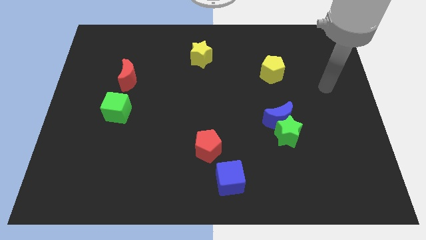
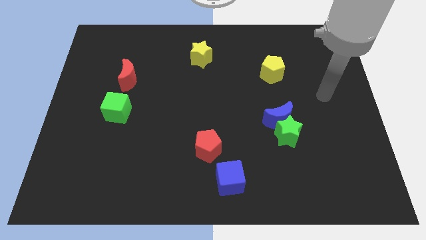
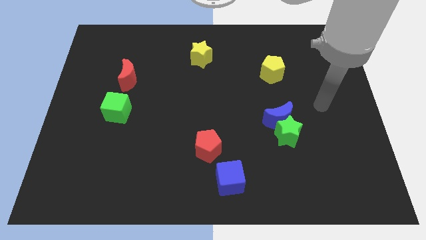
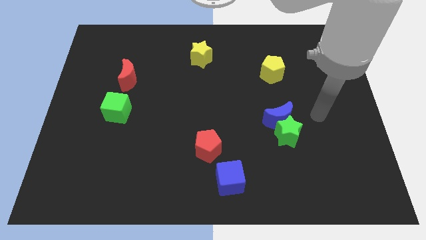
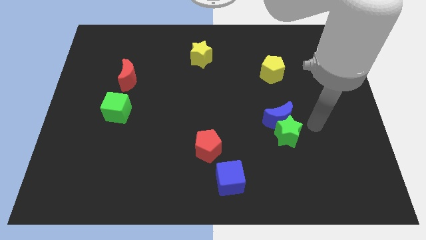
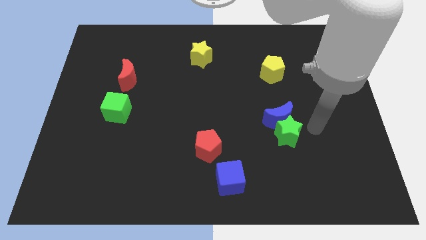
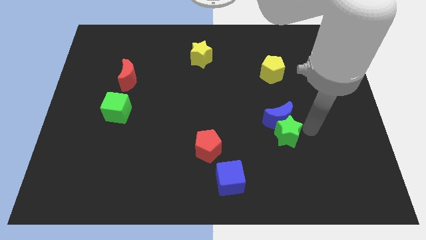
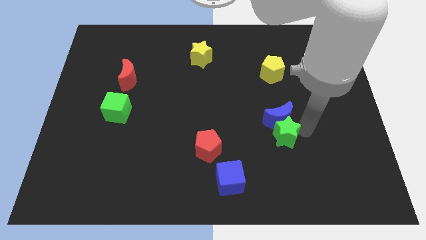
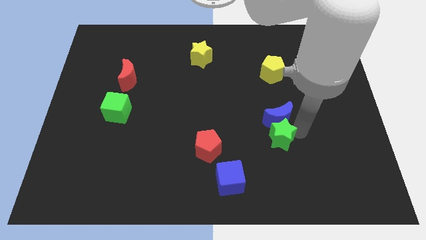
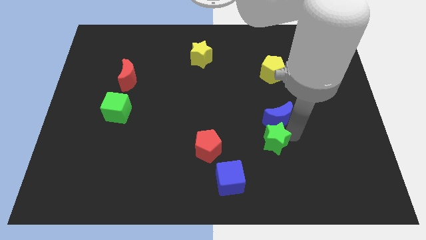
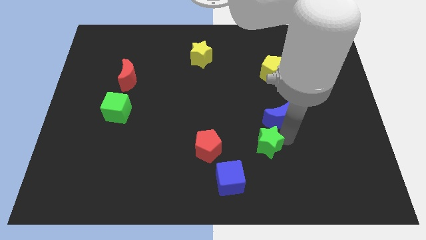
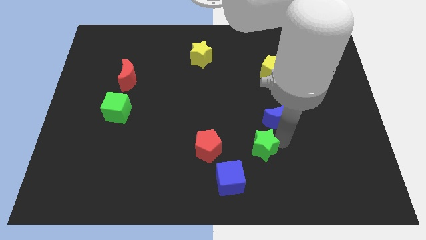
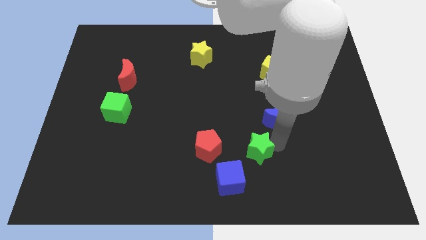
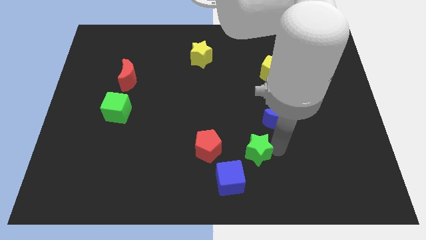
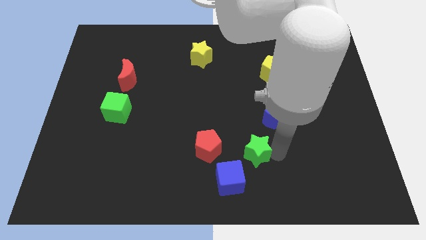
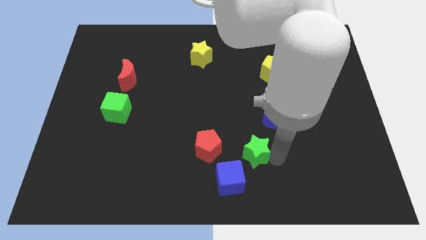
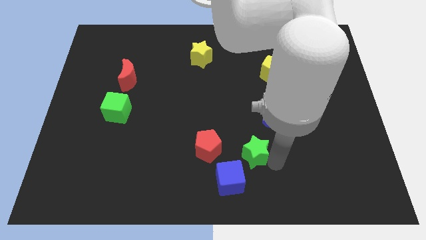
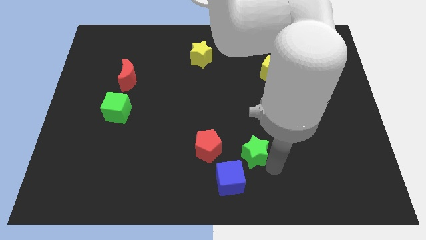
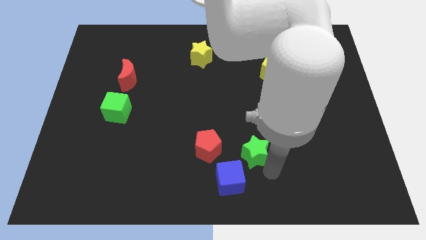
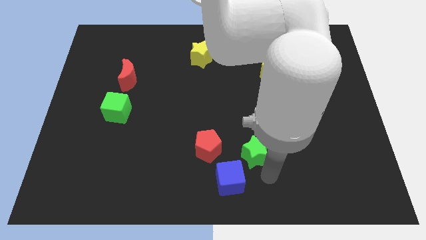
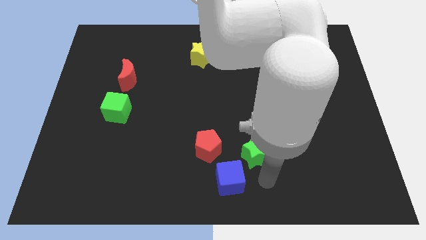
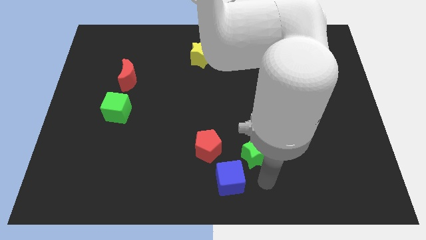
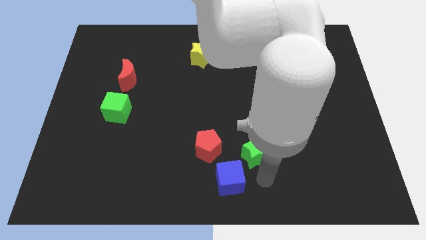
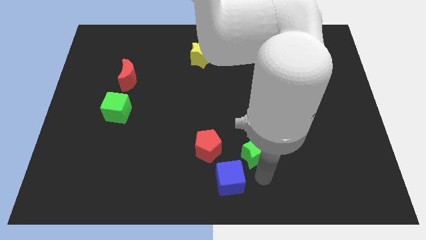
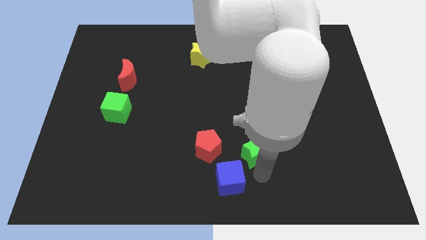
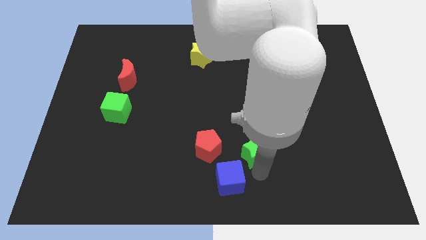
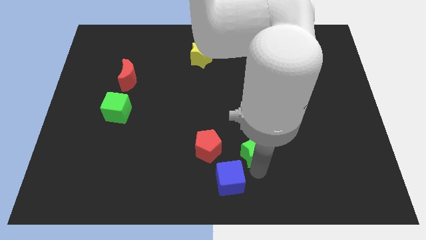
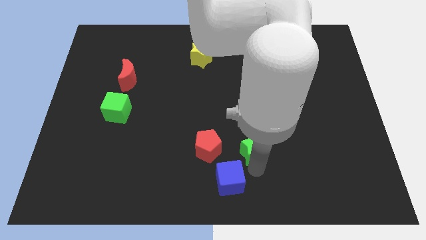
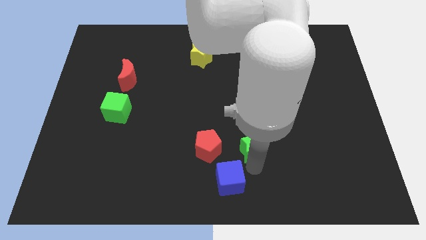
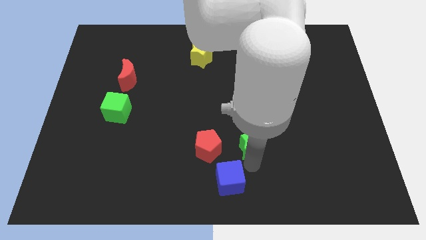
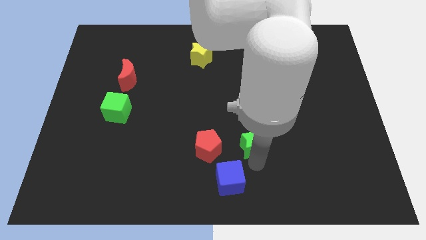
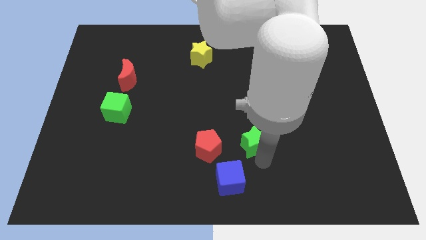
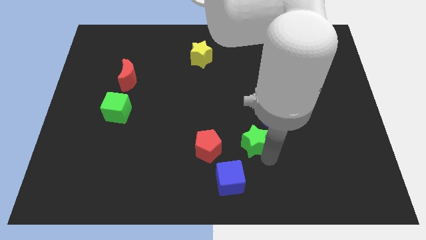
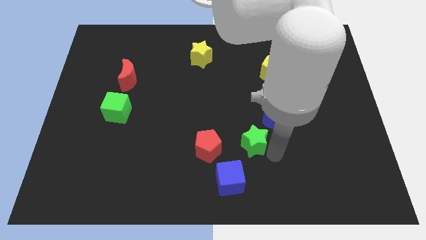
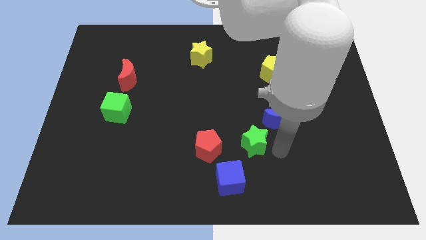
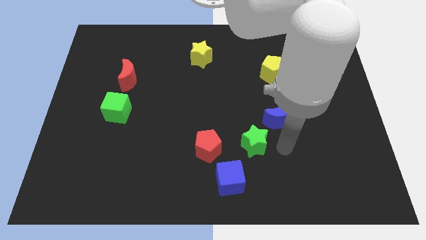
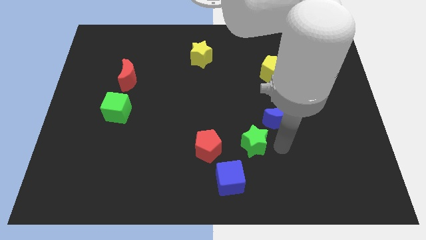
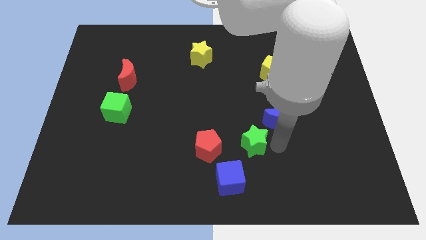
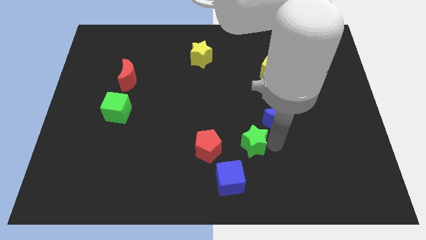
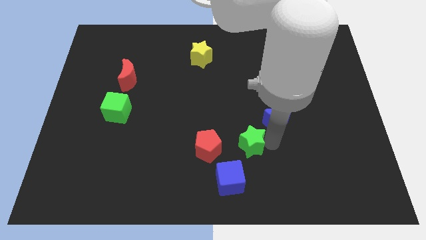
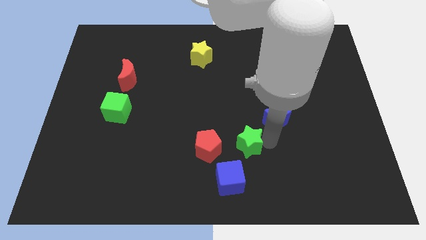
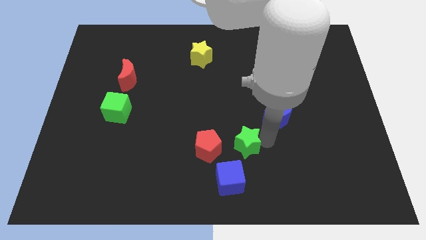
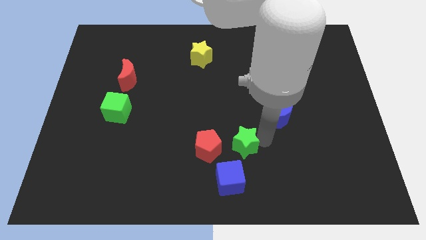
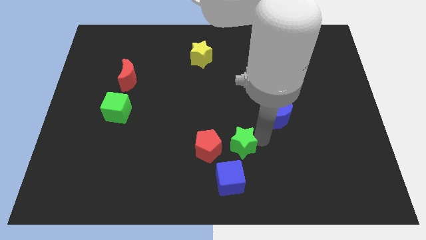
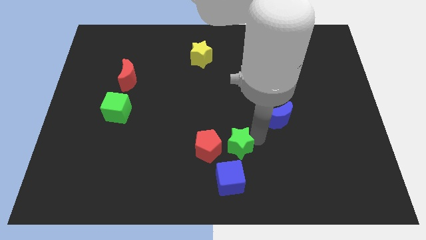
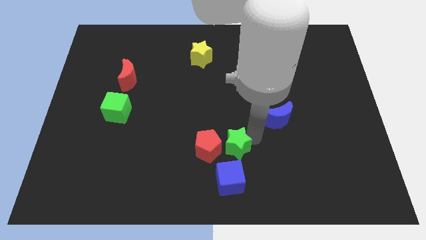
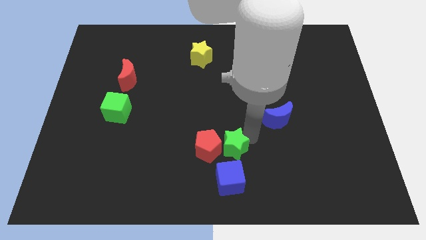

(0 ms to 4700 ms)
move the green star next to the red pentagon

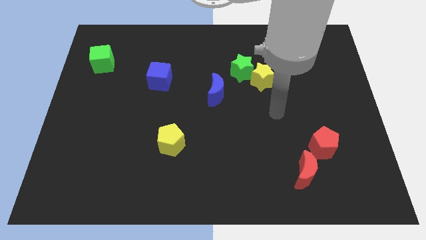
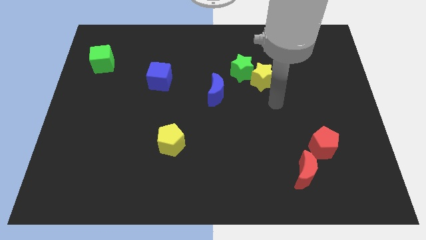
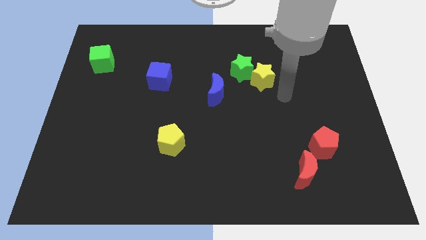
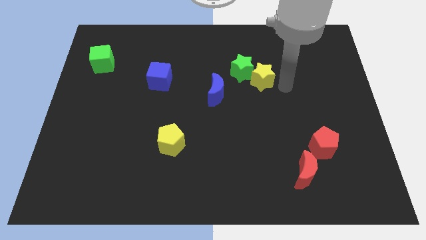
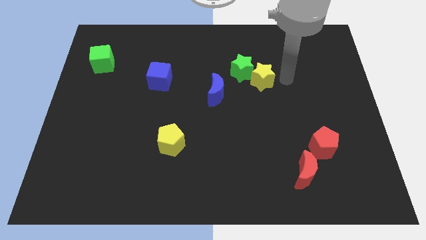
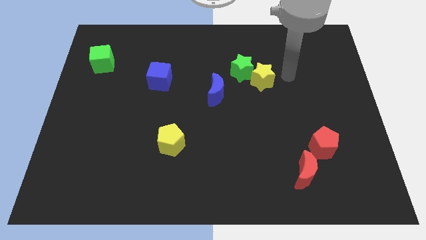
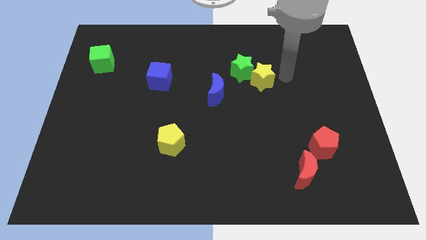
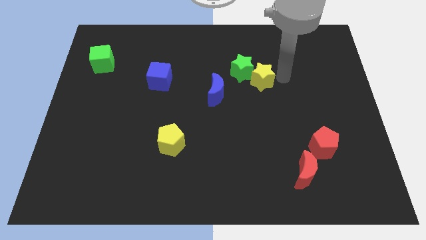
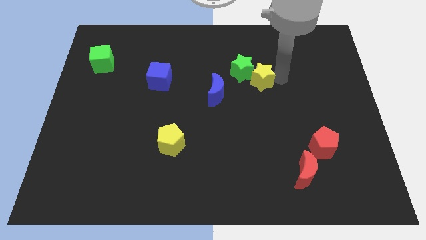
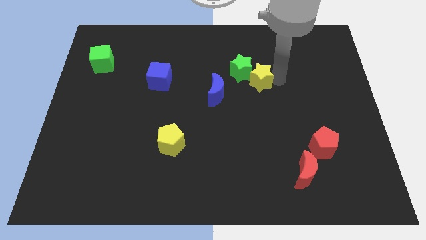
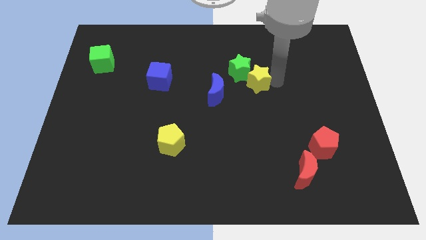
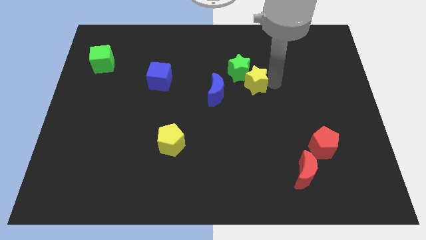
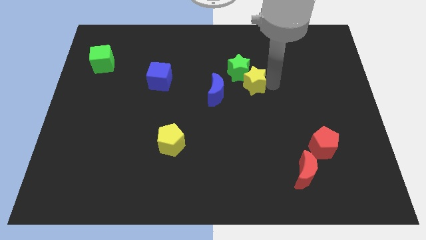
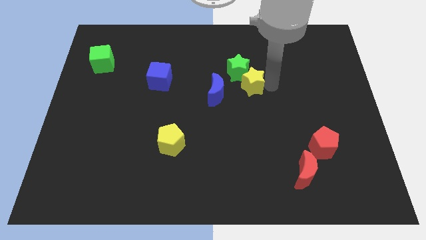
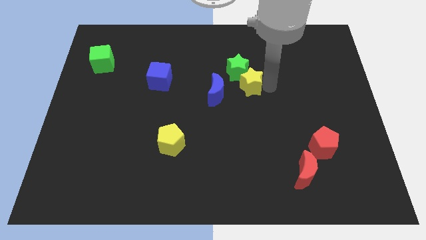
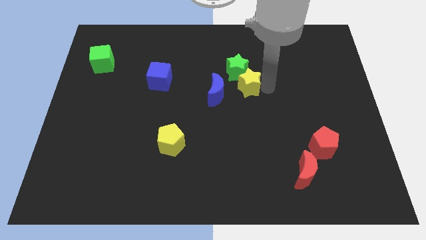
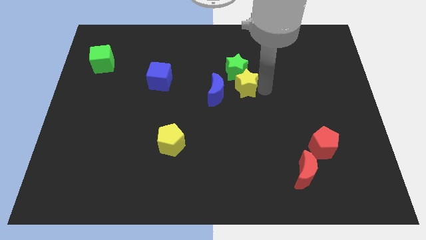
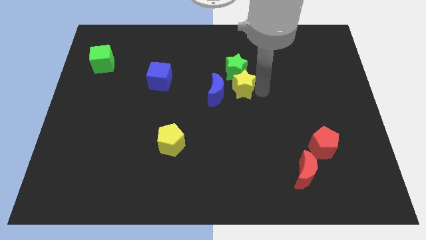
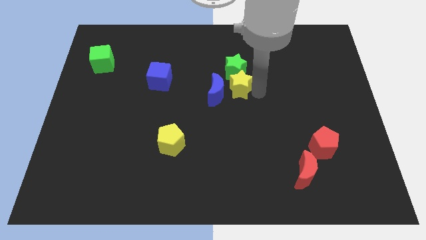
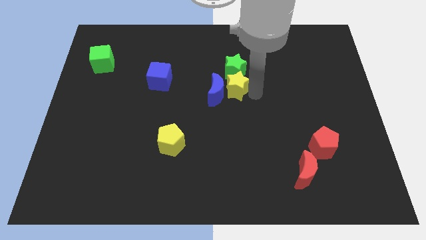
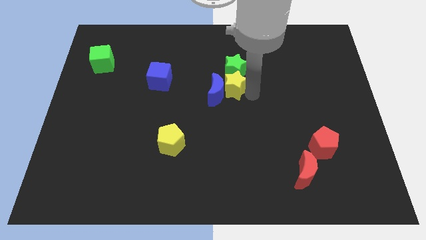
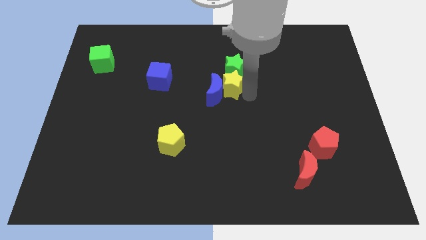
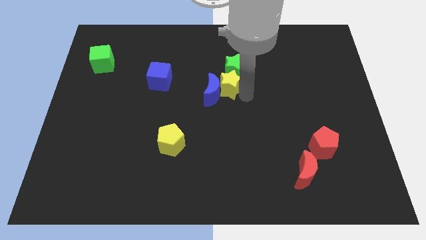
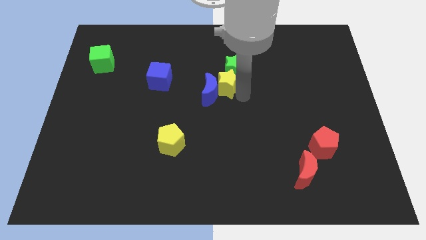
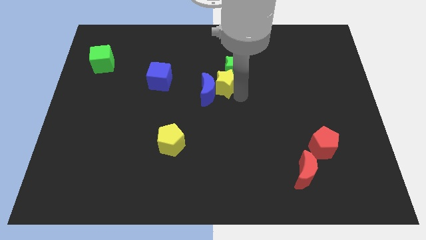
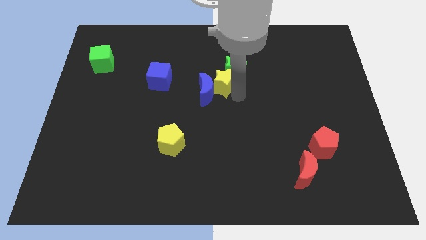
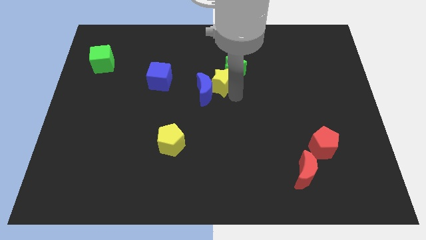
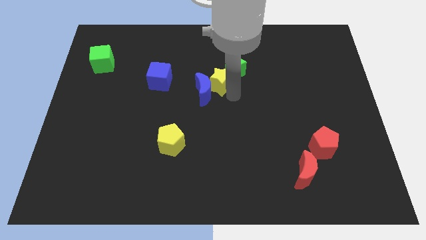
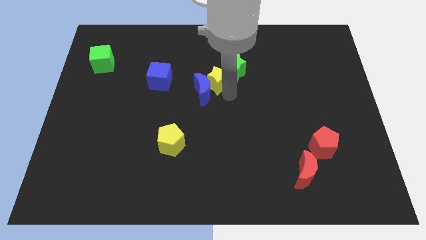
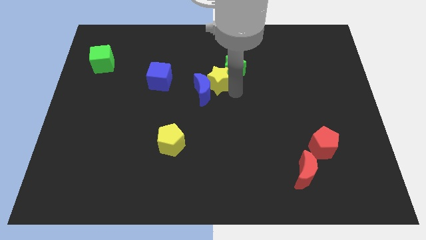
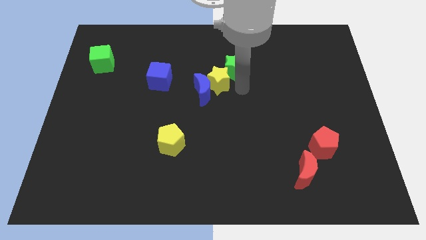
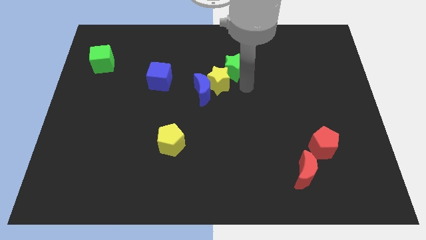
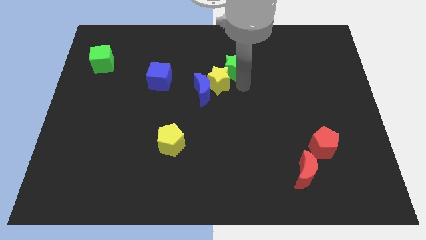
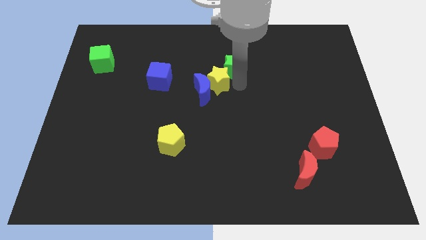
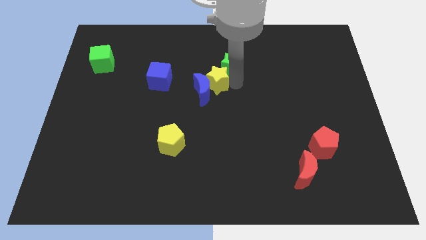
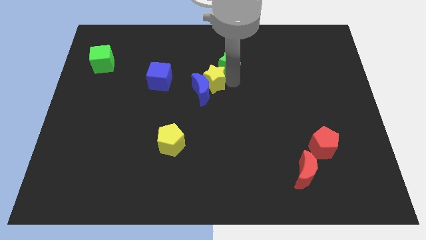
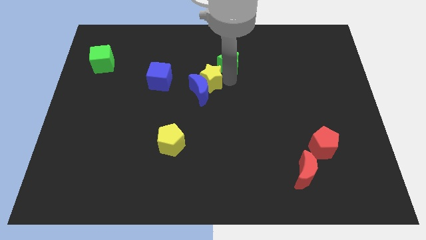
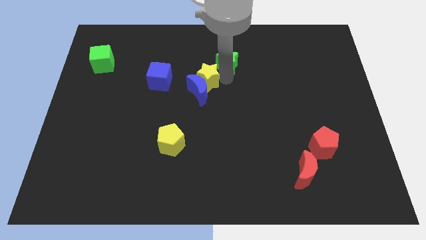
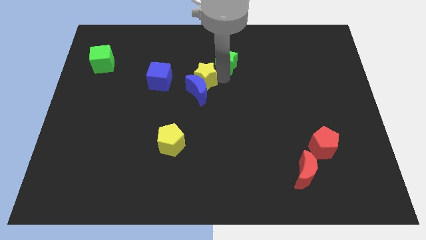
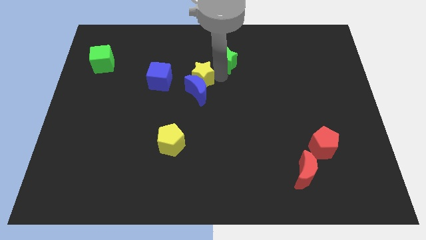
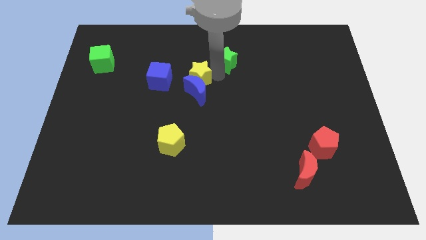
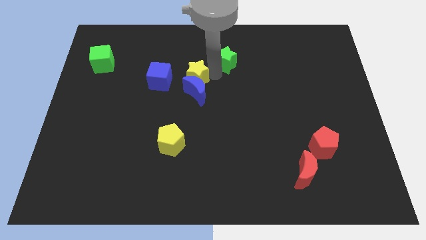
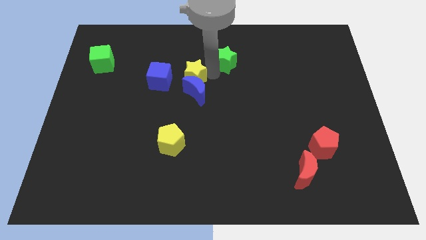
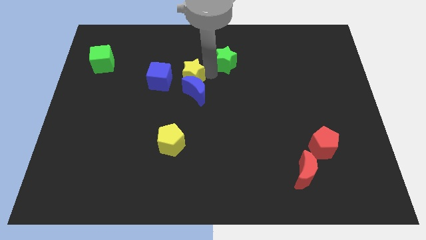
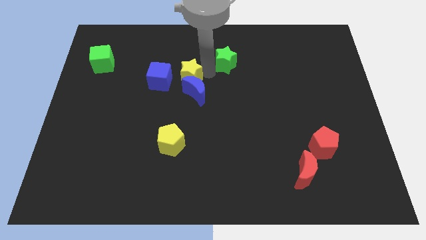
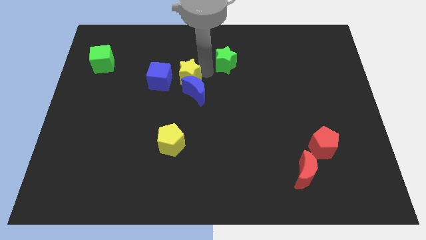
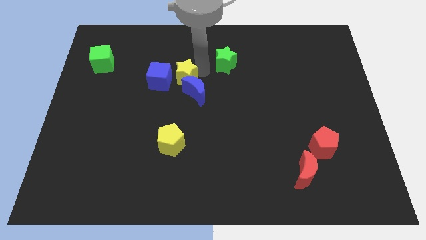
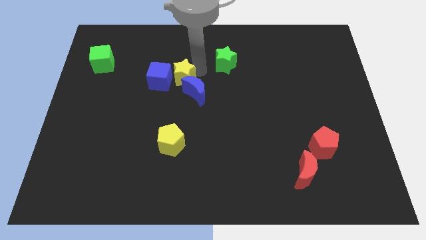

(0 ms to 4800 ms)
push the yellow star to the blue cube
